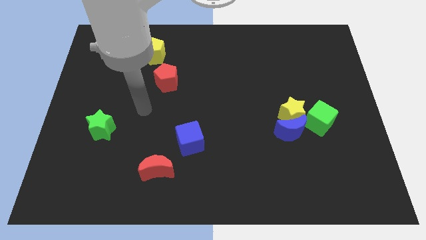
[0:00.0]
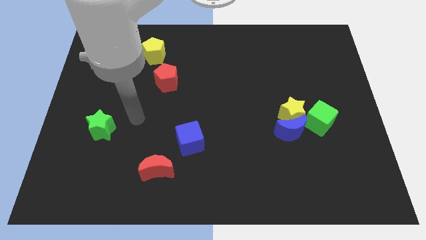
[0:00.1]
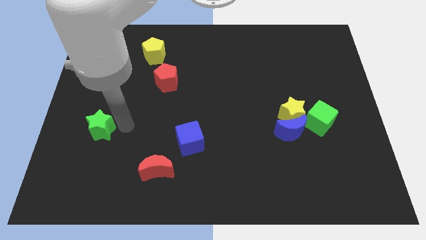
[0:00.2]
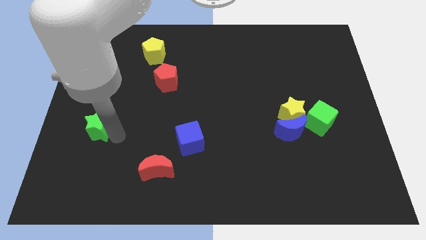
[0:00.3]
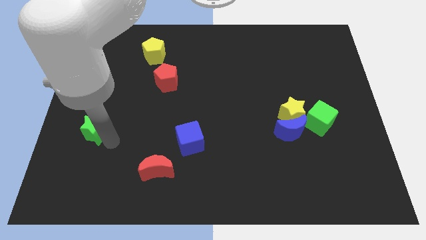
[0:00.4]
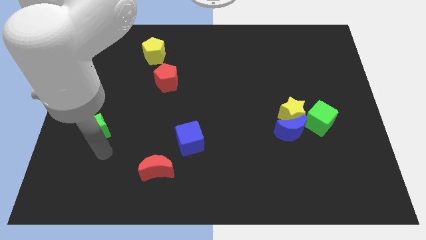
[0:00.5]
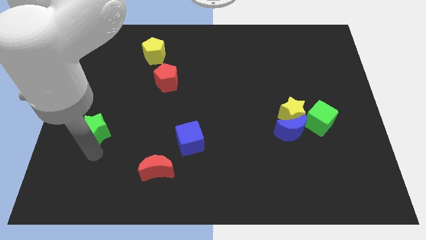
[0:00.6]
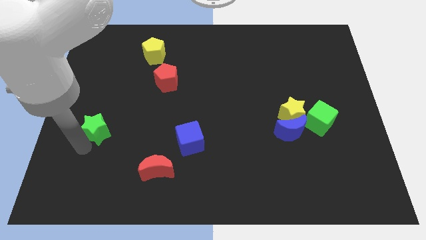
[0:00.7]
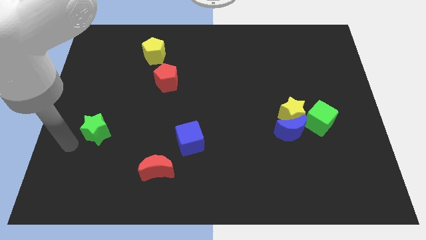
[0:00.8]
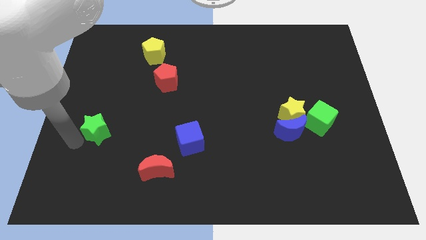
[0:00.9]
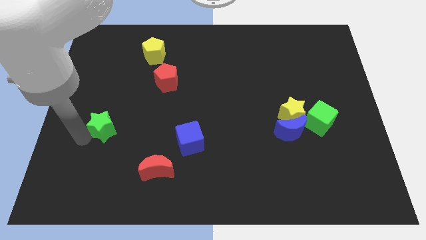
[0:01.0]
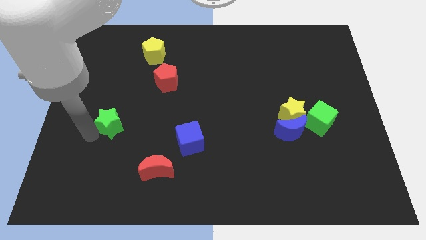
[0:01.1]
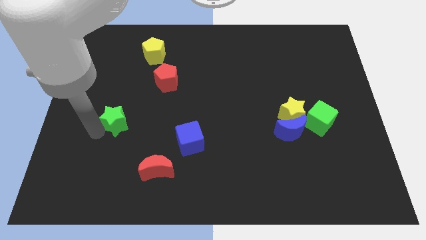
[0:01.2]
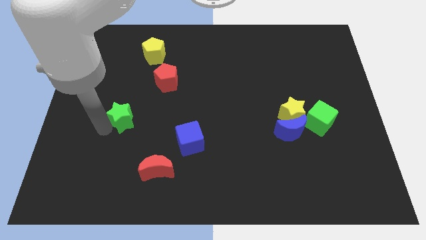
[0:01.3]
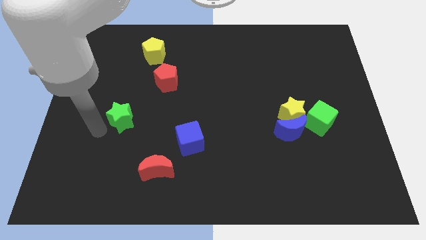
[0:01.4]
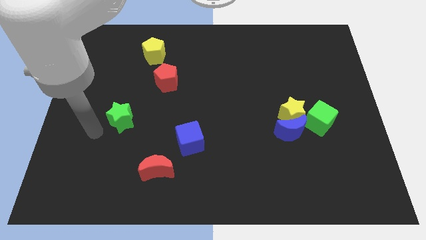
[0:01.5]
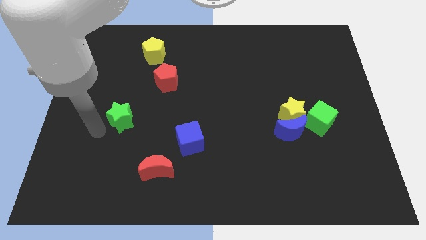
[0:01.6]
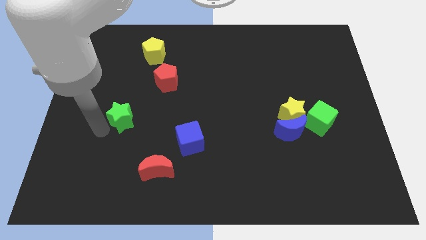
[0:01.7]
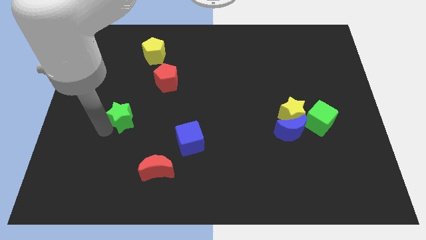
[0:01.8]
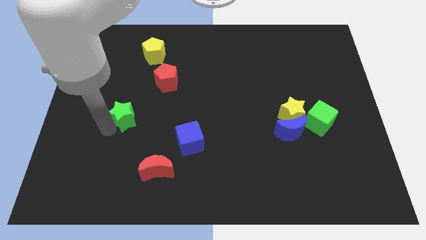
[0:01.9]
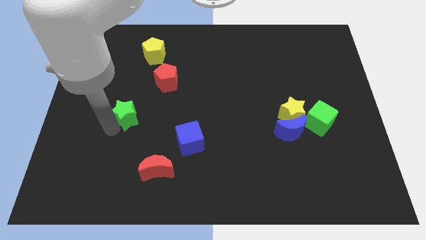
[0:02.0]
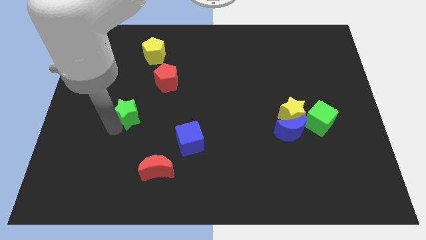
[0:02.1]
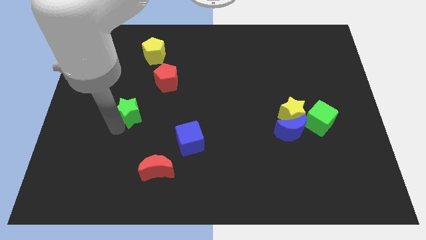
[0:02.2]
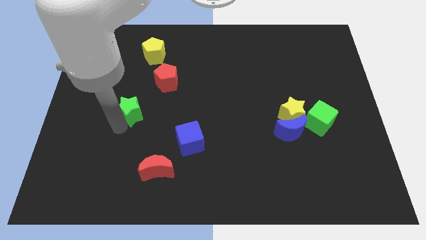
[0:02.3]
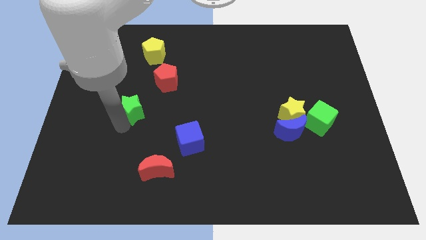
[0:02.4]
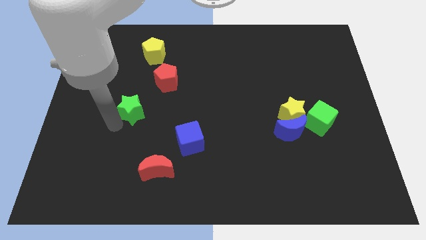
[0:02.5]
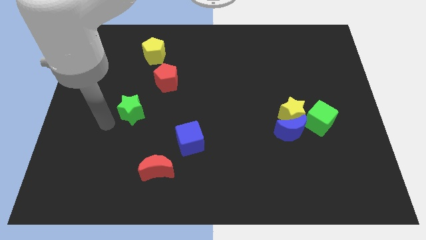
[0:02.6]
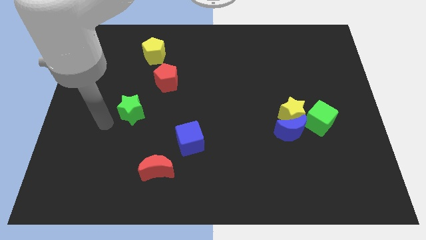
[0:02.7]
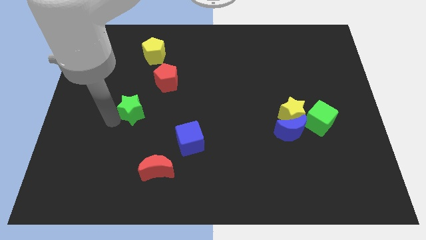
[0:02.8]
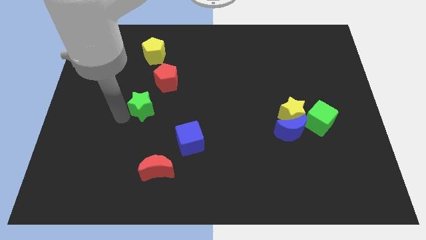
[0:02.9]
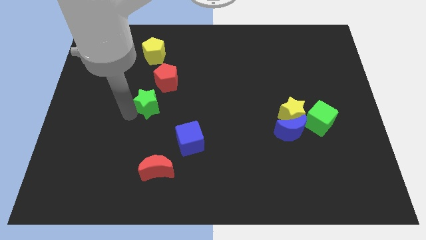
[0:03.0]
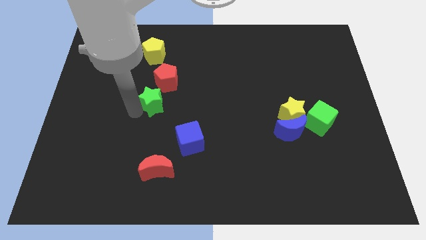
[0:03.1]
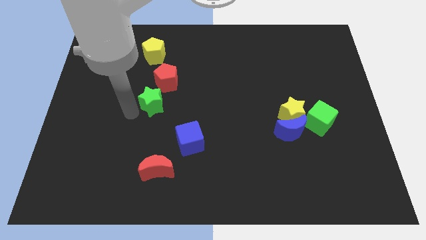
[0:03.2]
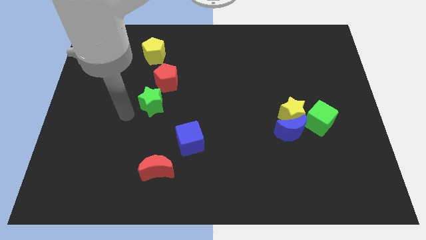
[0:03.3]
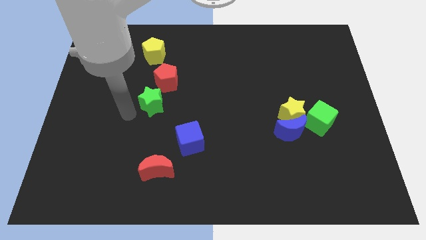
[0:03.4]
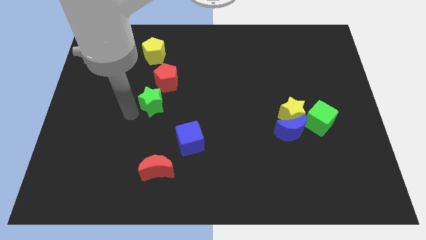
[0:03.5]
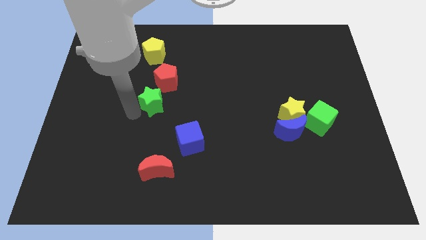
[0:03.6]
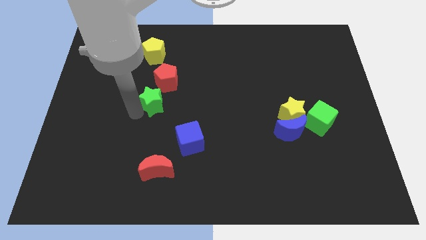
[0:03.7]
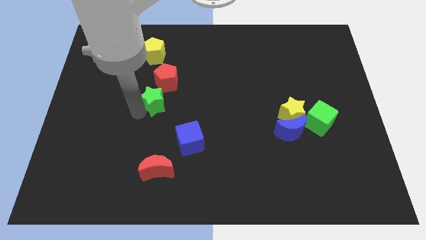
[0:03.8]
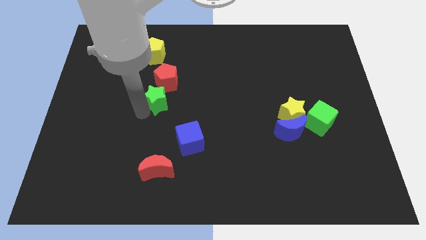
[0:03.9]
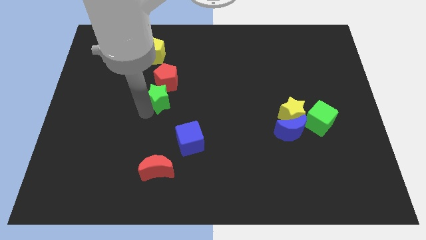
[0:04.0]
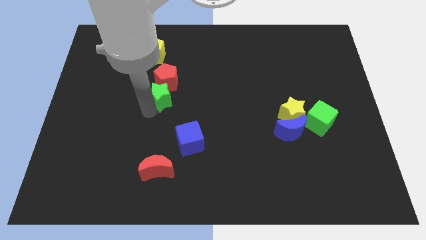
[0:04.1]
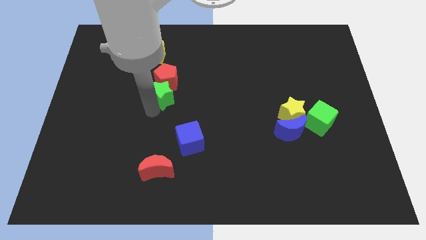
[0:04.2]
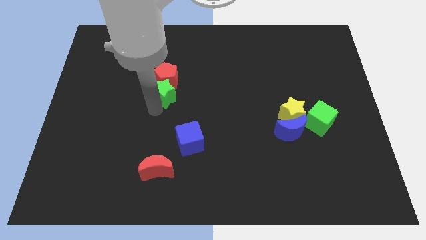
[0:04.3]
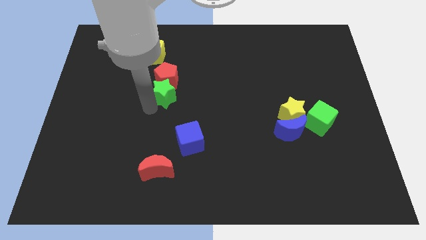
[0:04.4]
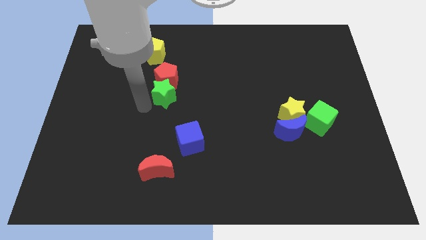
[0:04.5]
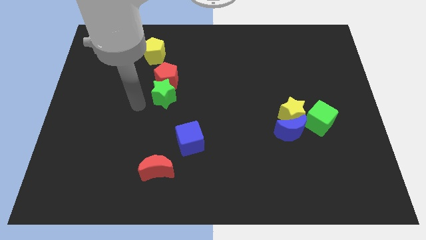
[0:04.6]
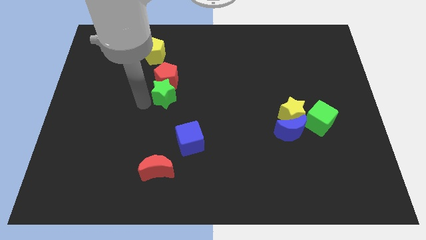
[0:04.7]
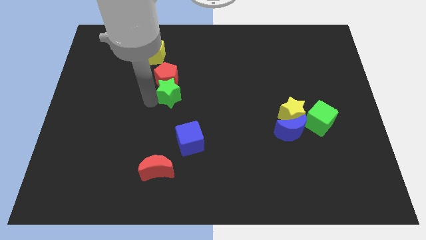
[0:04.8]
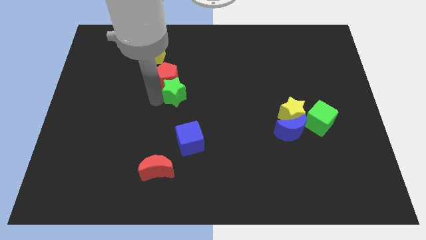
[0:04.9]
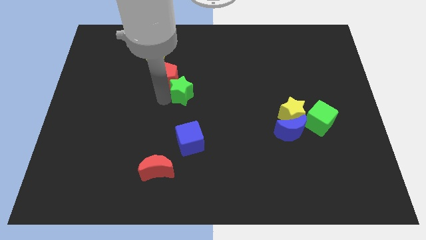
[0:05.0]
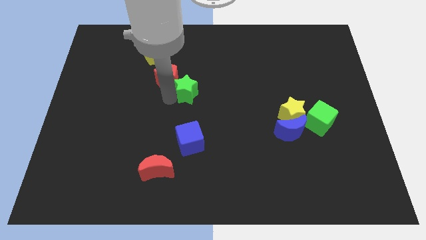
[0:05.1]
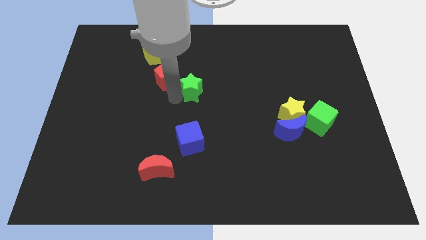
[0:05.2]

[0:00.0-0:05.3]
slide the green star up and to the right diagonally

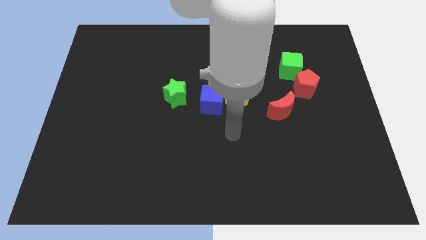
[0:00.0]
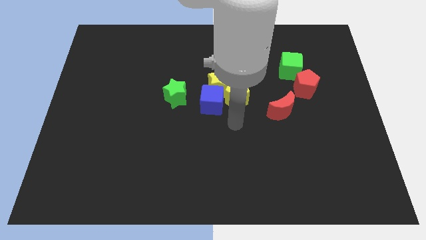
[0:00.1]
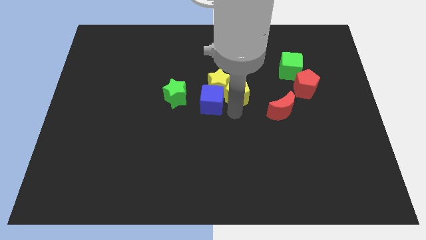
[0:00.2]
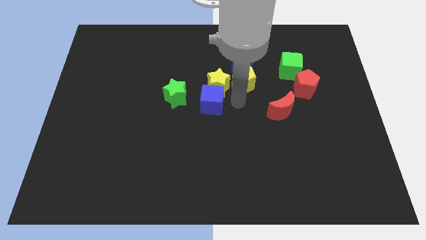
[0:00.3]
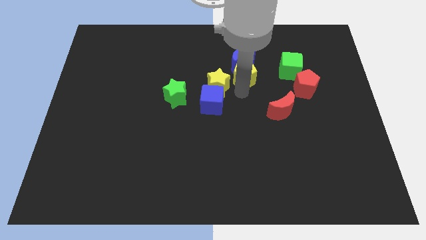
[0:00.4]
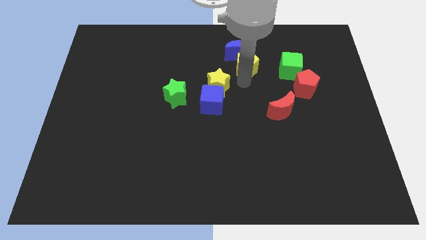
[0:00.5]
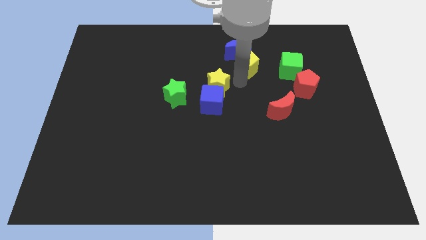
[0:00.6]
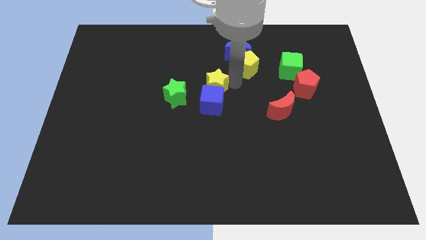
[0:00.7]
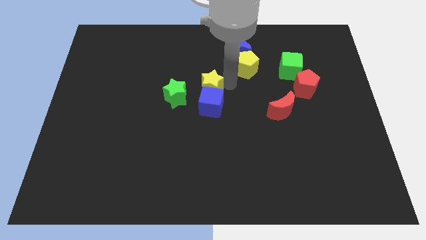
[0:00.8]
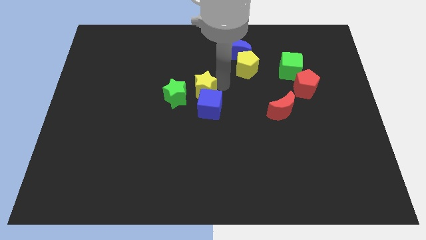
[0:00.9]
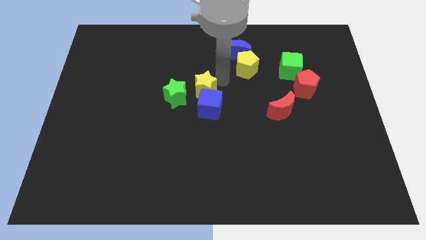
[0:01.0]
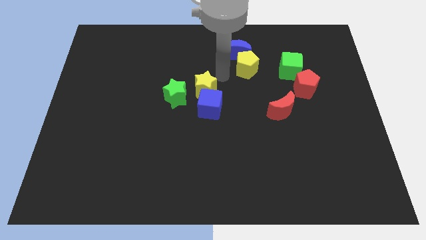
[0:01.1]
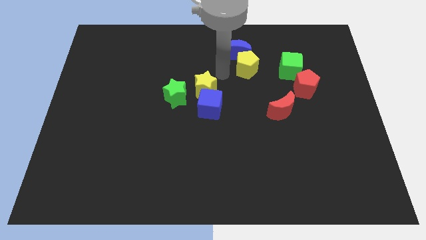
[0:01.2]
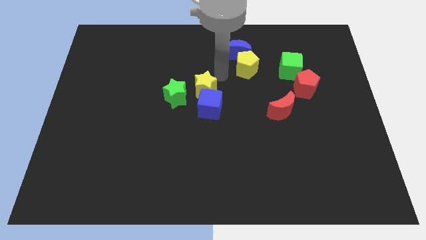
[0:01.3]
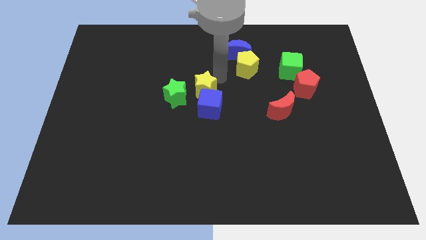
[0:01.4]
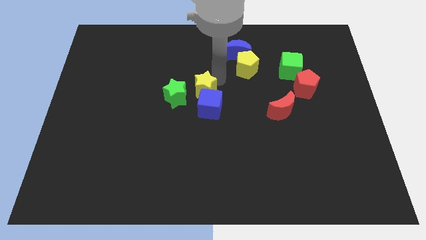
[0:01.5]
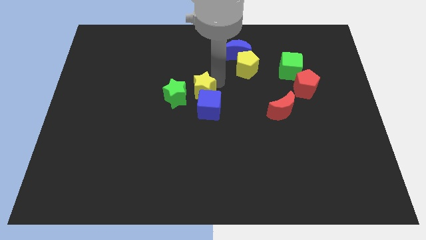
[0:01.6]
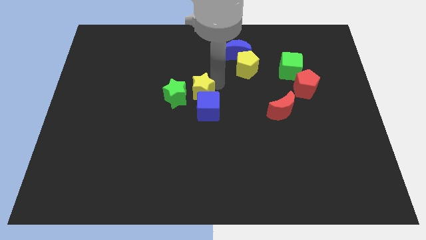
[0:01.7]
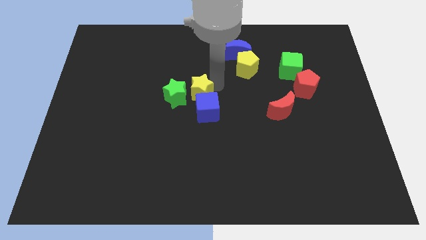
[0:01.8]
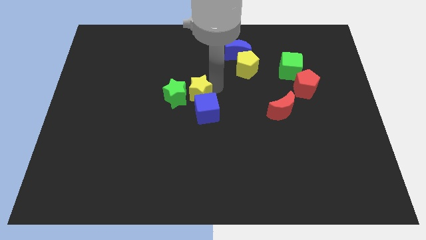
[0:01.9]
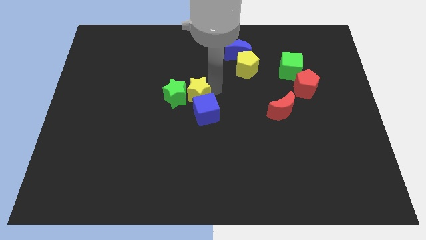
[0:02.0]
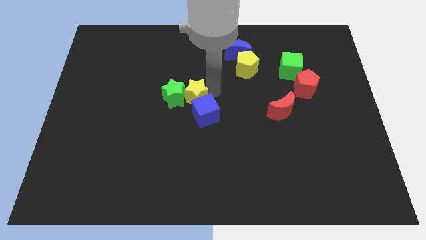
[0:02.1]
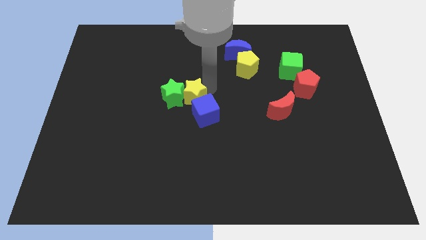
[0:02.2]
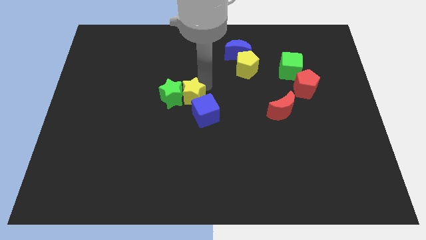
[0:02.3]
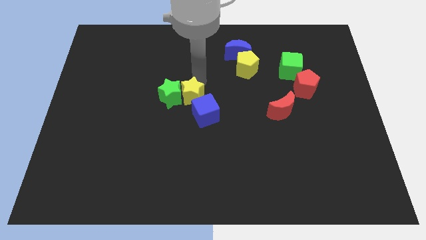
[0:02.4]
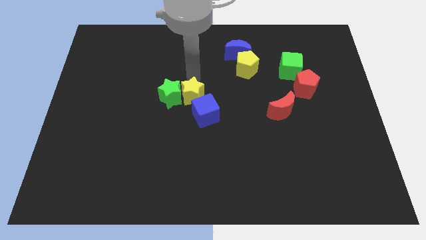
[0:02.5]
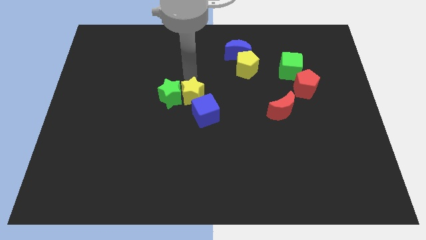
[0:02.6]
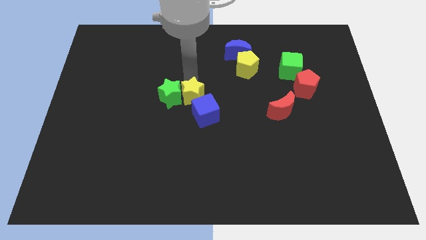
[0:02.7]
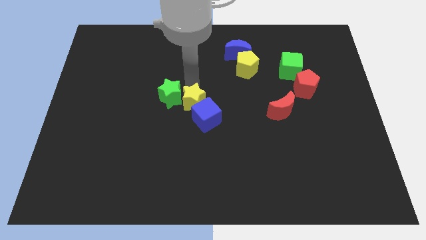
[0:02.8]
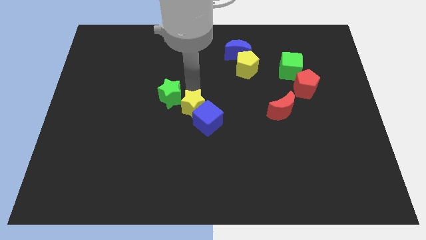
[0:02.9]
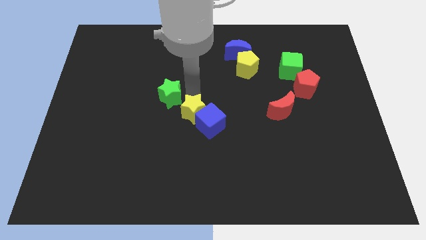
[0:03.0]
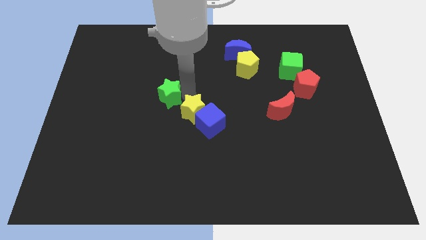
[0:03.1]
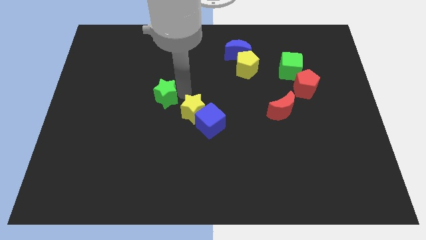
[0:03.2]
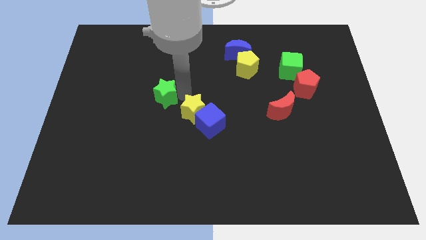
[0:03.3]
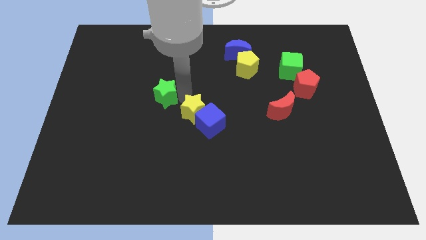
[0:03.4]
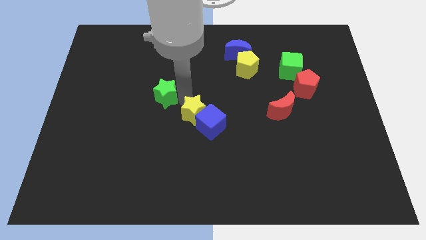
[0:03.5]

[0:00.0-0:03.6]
slightly push the yellow star down
